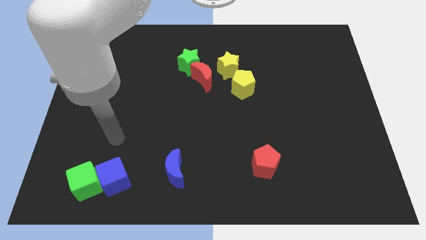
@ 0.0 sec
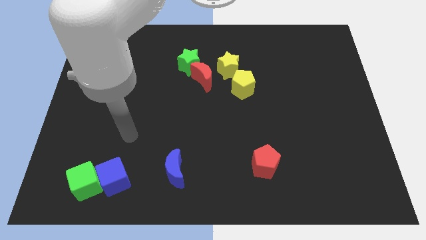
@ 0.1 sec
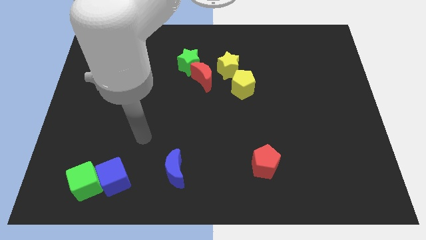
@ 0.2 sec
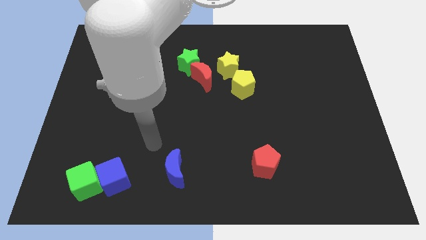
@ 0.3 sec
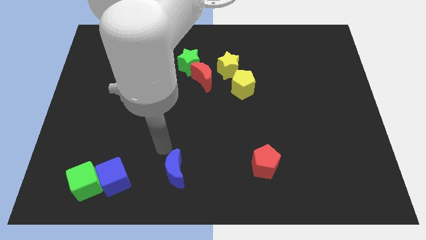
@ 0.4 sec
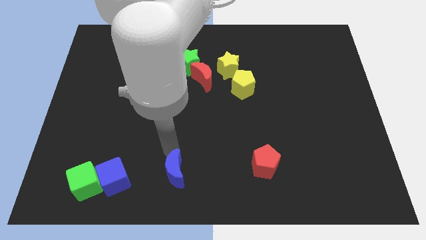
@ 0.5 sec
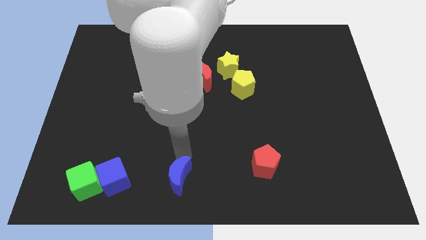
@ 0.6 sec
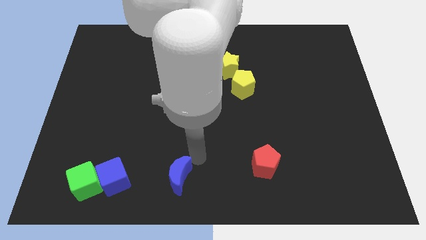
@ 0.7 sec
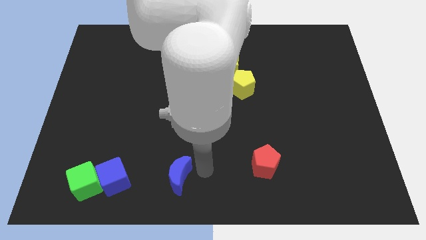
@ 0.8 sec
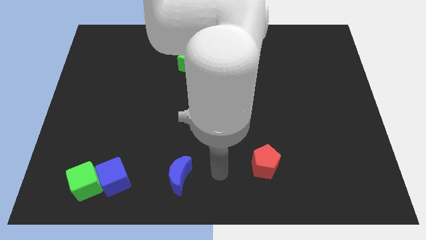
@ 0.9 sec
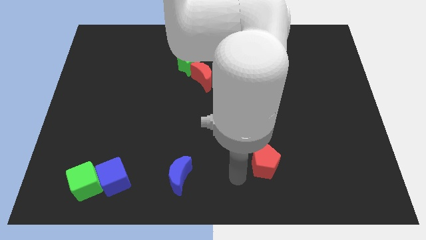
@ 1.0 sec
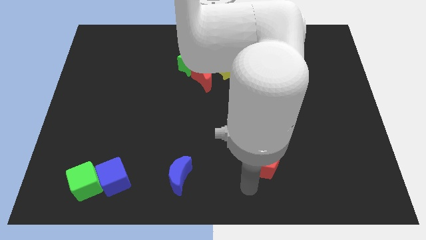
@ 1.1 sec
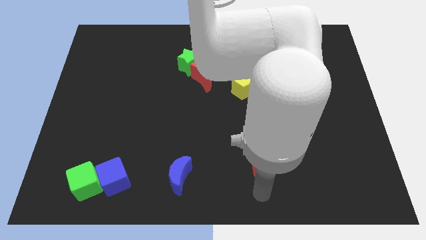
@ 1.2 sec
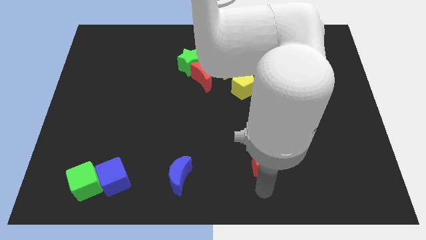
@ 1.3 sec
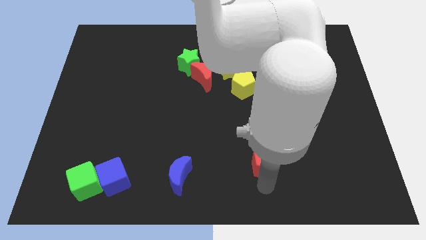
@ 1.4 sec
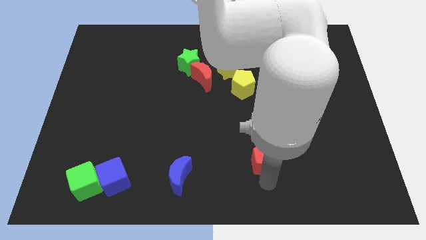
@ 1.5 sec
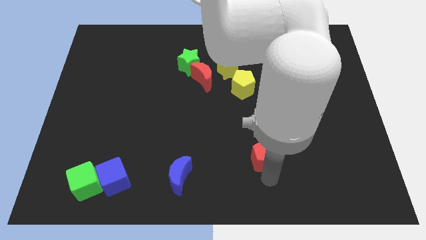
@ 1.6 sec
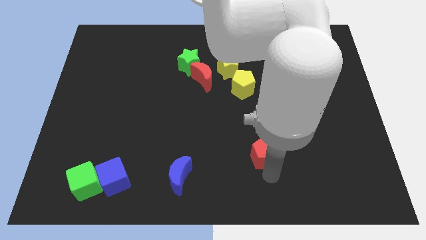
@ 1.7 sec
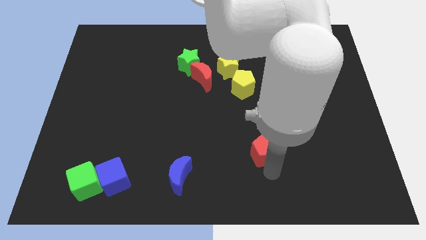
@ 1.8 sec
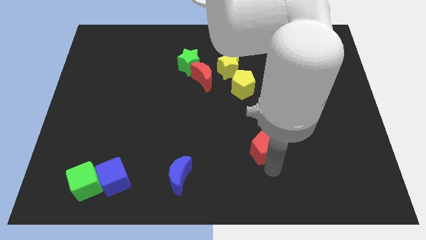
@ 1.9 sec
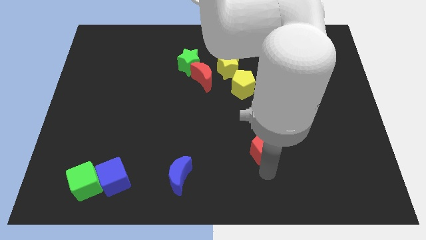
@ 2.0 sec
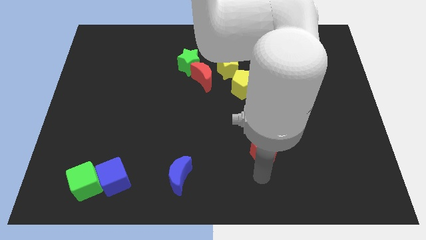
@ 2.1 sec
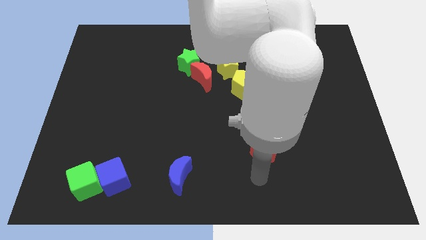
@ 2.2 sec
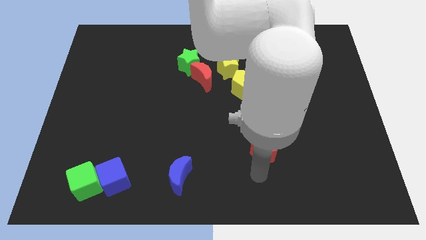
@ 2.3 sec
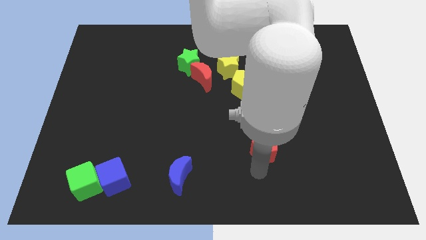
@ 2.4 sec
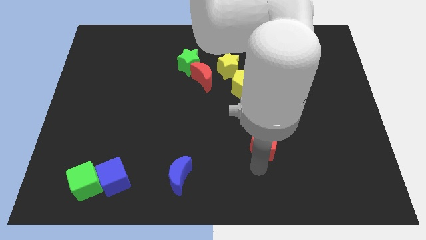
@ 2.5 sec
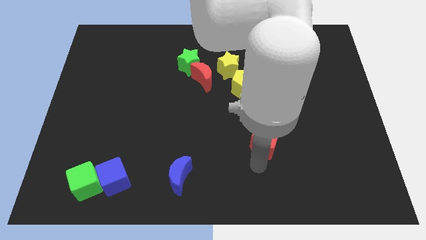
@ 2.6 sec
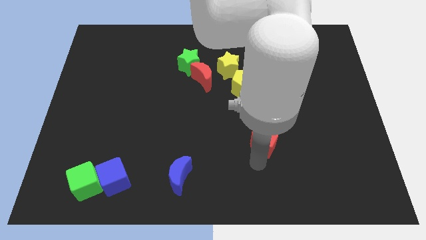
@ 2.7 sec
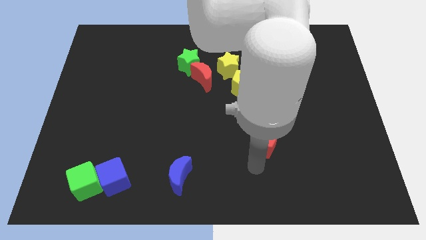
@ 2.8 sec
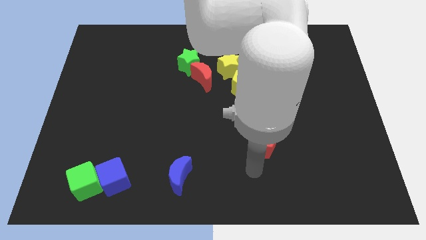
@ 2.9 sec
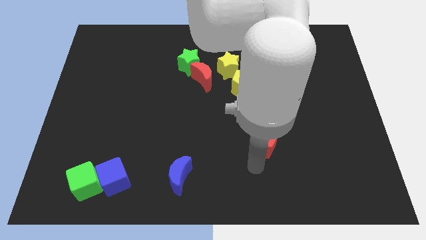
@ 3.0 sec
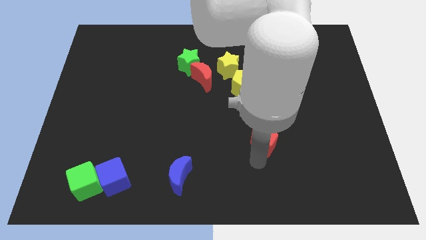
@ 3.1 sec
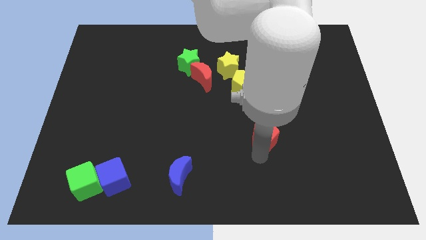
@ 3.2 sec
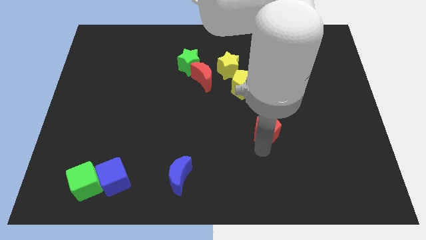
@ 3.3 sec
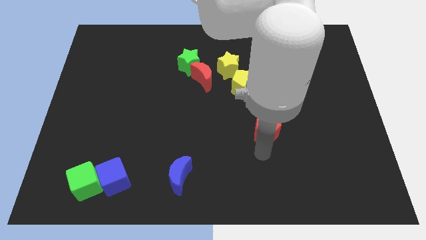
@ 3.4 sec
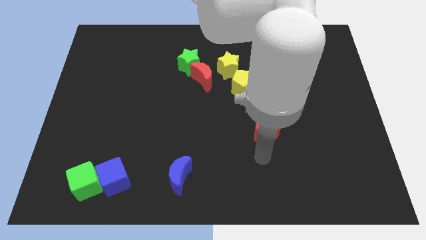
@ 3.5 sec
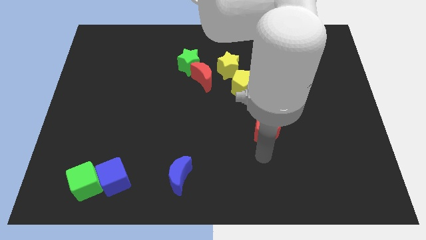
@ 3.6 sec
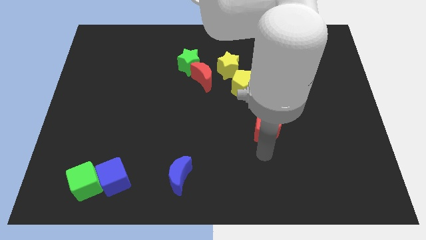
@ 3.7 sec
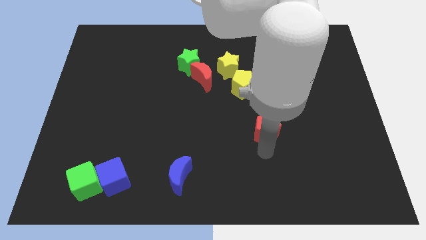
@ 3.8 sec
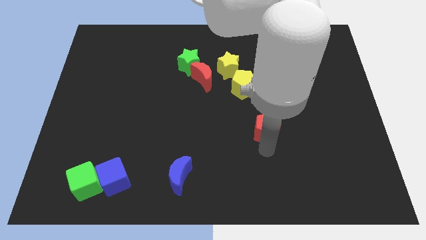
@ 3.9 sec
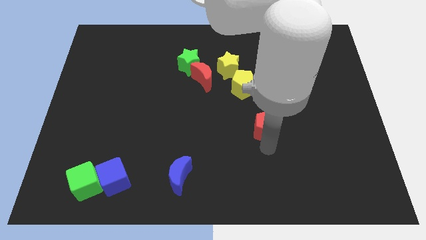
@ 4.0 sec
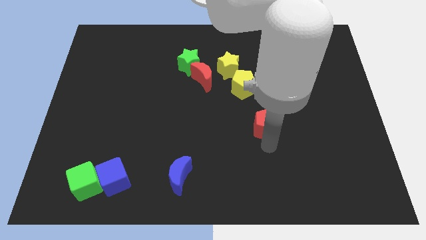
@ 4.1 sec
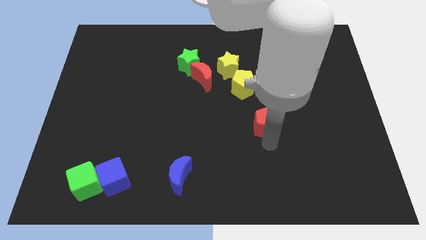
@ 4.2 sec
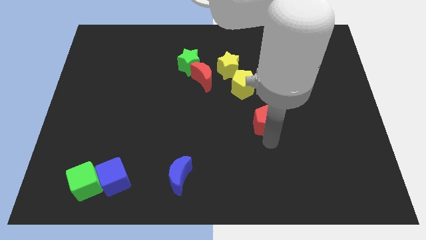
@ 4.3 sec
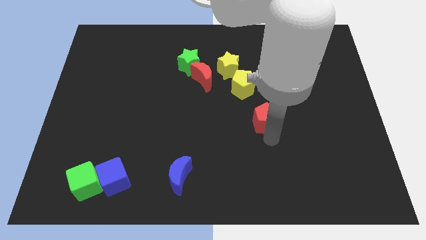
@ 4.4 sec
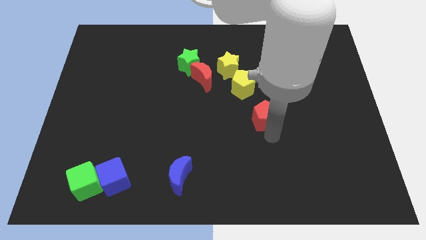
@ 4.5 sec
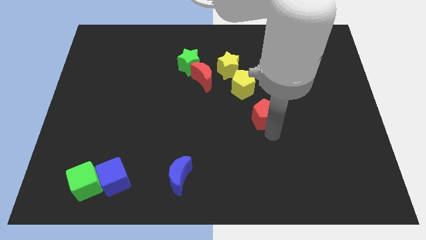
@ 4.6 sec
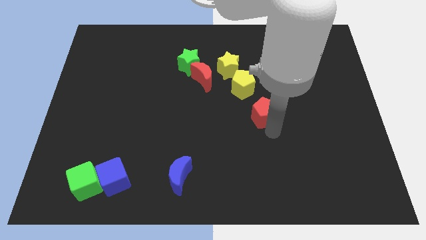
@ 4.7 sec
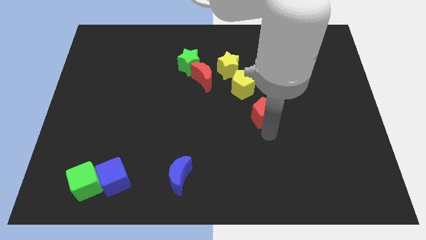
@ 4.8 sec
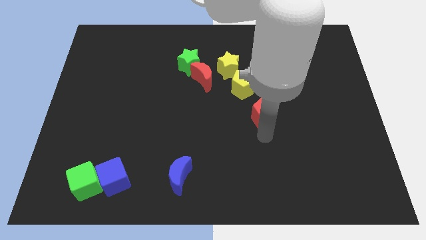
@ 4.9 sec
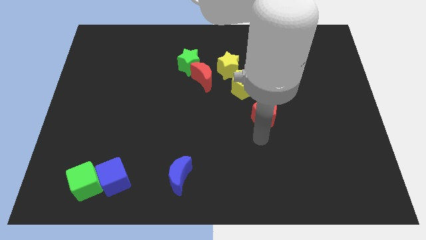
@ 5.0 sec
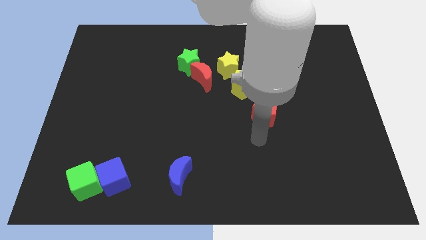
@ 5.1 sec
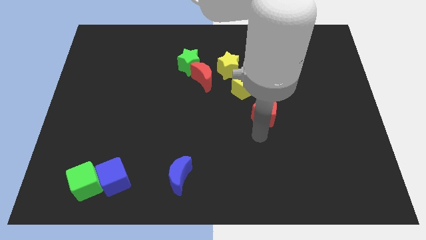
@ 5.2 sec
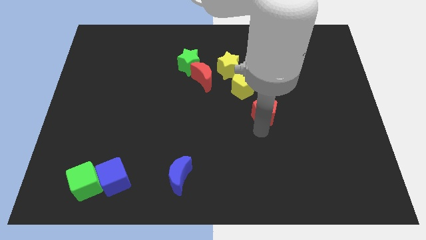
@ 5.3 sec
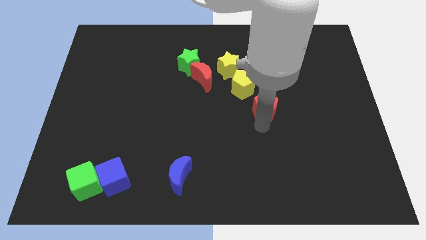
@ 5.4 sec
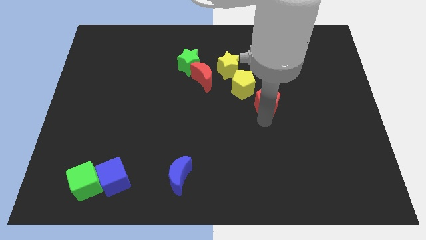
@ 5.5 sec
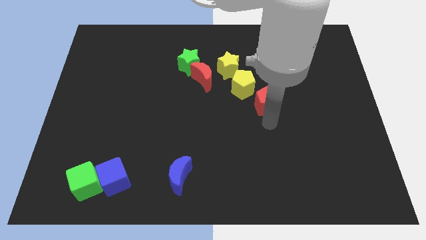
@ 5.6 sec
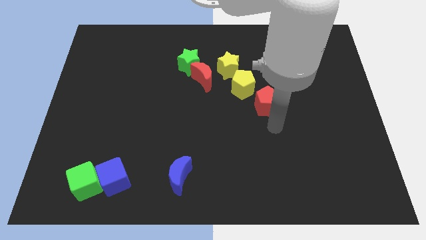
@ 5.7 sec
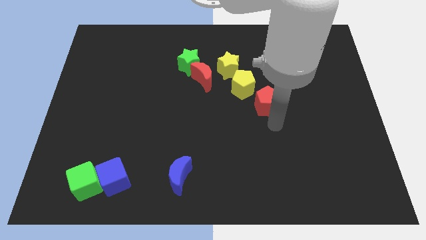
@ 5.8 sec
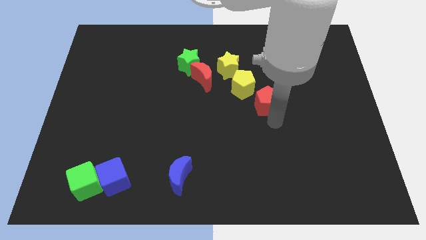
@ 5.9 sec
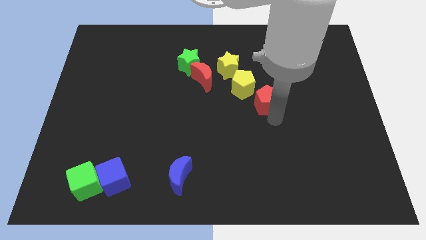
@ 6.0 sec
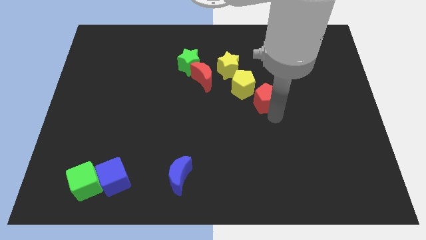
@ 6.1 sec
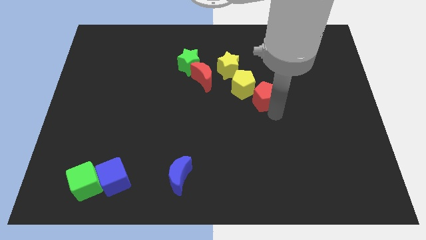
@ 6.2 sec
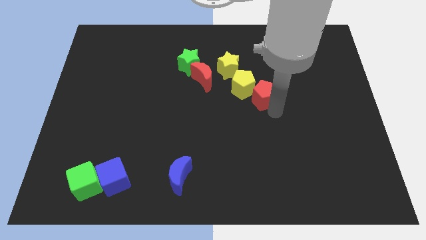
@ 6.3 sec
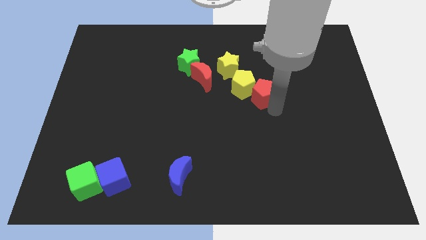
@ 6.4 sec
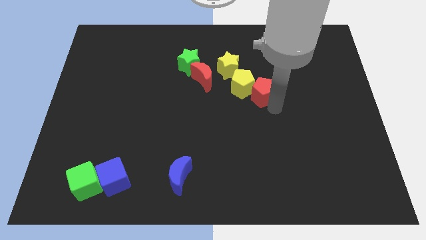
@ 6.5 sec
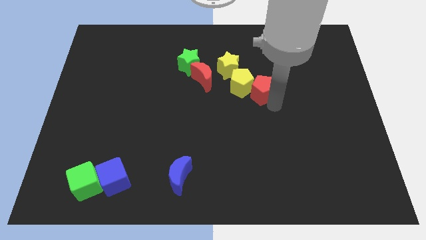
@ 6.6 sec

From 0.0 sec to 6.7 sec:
move the red pentagon upwards

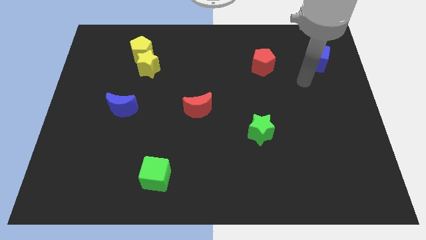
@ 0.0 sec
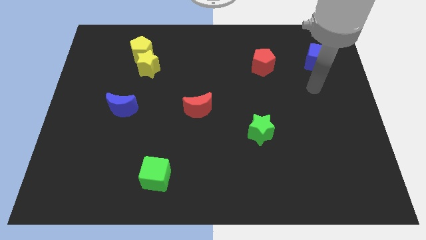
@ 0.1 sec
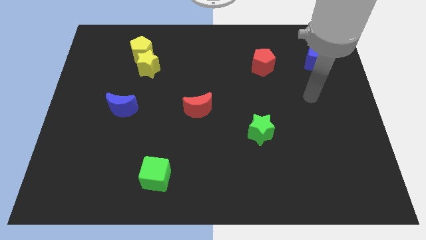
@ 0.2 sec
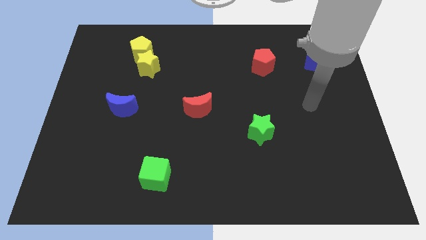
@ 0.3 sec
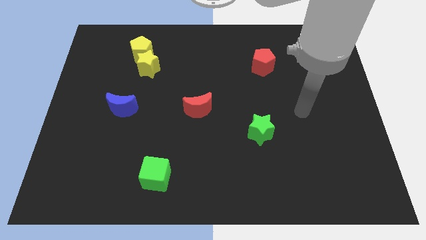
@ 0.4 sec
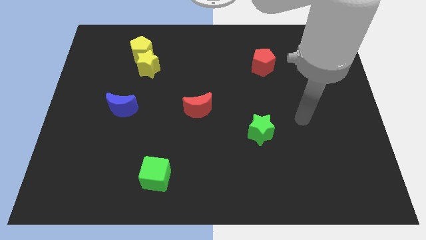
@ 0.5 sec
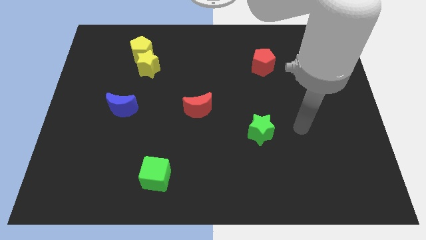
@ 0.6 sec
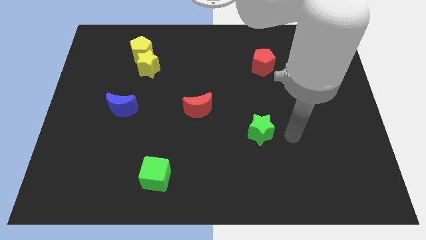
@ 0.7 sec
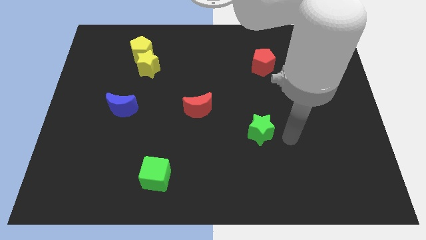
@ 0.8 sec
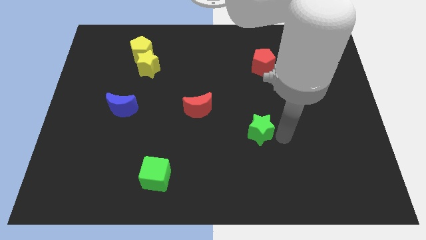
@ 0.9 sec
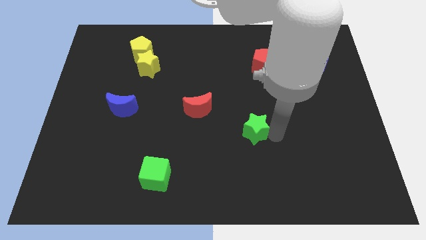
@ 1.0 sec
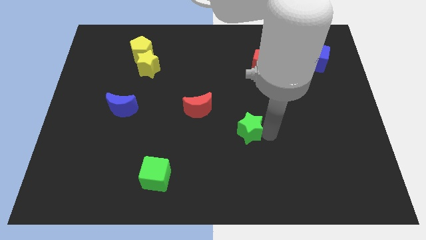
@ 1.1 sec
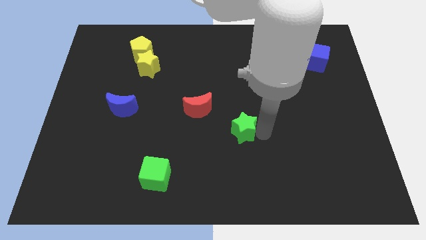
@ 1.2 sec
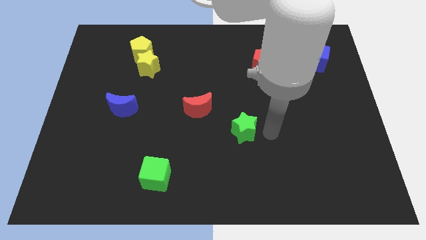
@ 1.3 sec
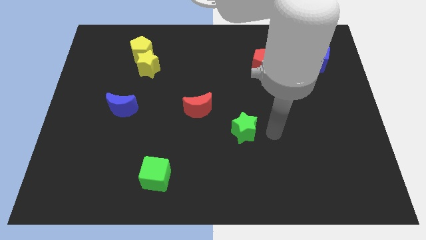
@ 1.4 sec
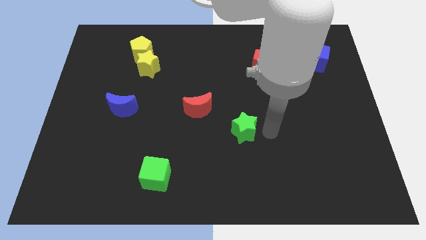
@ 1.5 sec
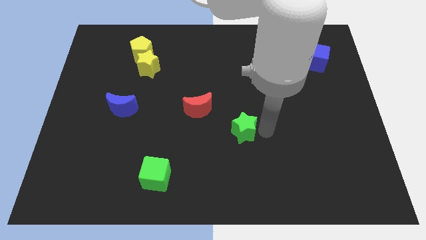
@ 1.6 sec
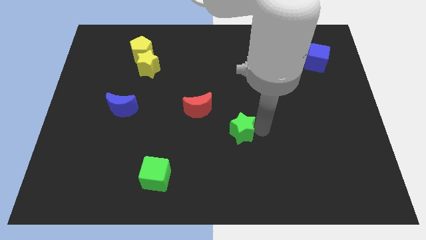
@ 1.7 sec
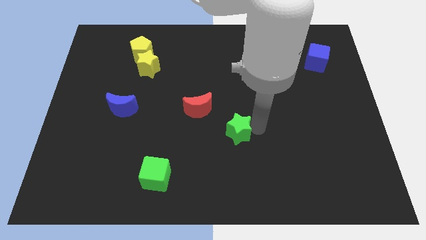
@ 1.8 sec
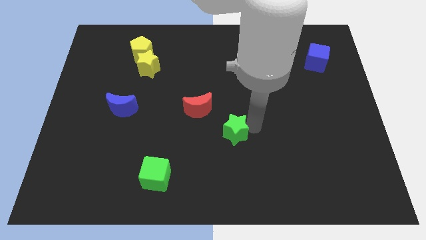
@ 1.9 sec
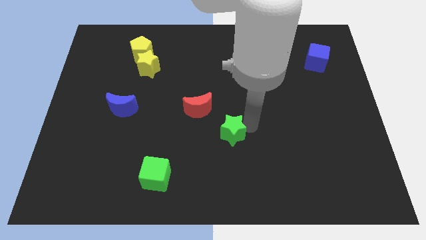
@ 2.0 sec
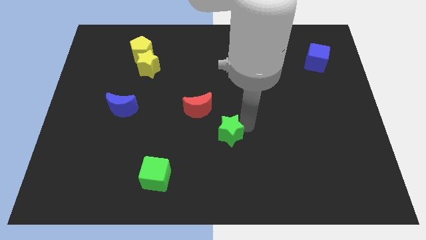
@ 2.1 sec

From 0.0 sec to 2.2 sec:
slightly move the green star left
